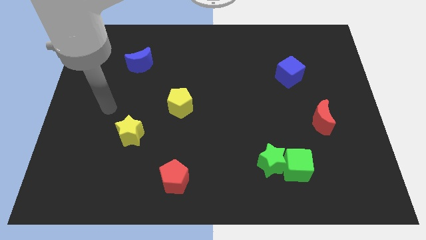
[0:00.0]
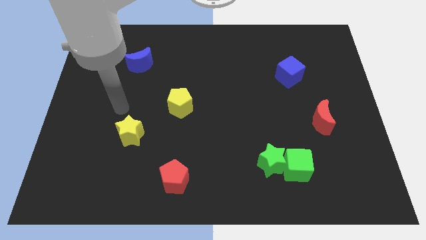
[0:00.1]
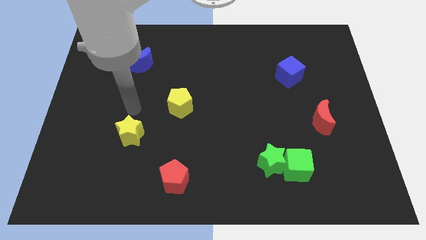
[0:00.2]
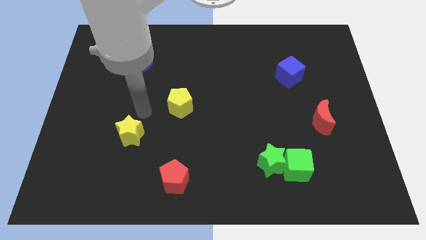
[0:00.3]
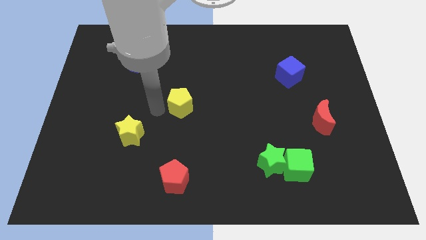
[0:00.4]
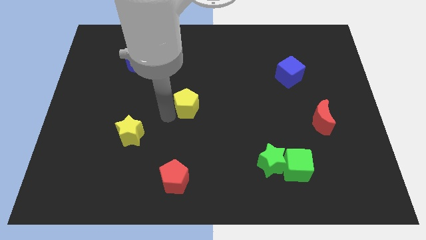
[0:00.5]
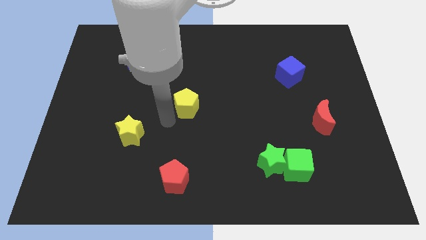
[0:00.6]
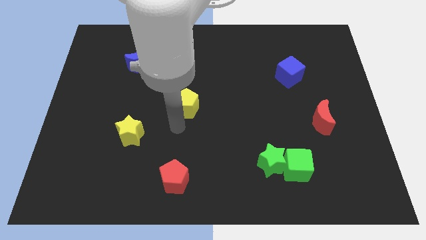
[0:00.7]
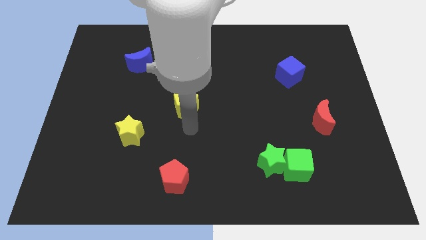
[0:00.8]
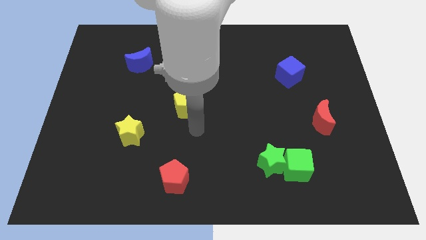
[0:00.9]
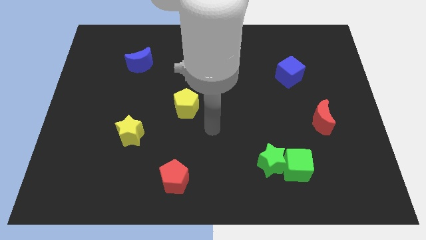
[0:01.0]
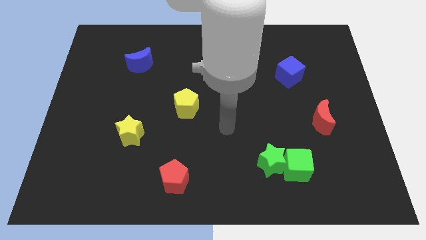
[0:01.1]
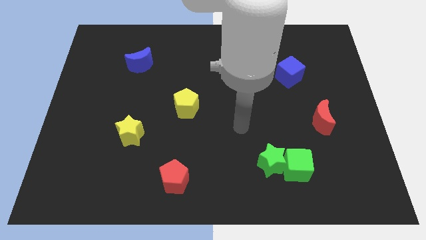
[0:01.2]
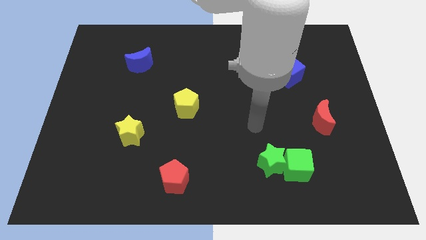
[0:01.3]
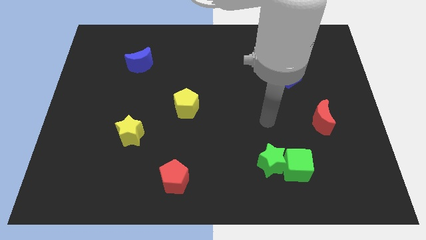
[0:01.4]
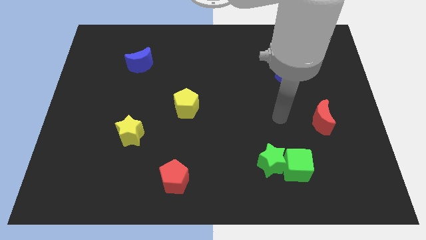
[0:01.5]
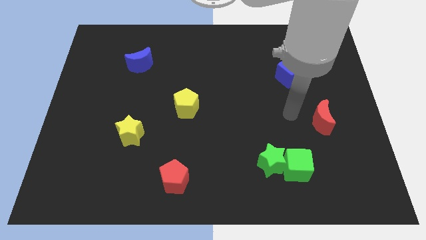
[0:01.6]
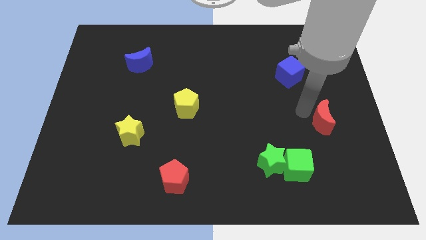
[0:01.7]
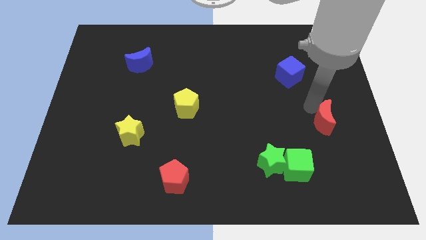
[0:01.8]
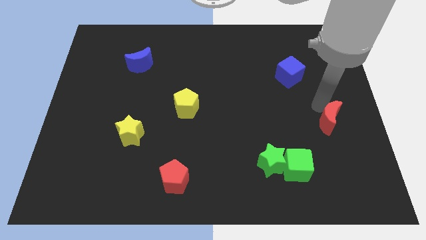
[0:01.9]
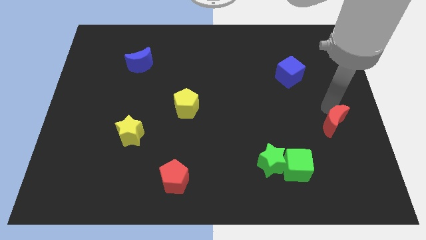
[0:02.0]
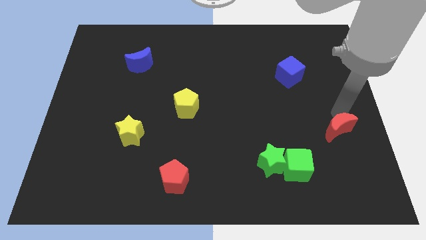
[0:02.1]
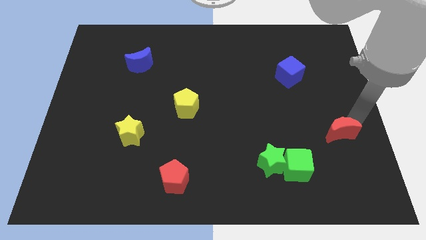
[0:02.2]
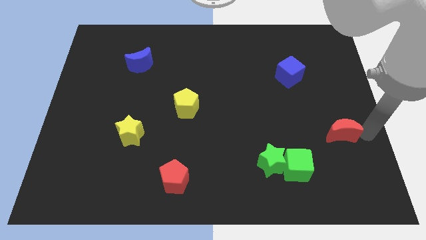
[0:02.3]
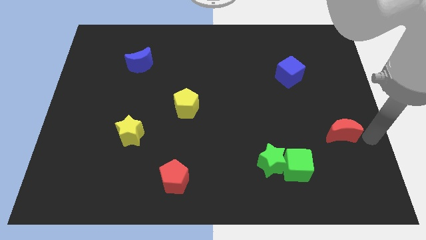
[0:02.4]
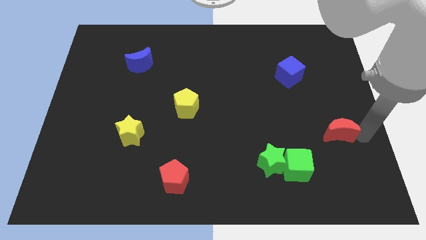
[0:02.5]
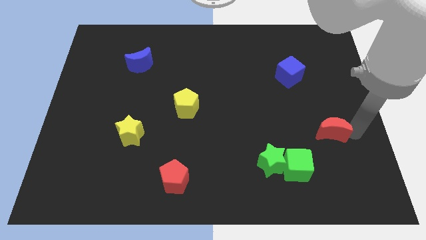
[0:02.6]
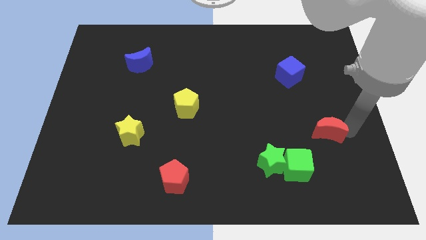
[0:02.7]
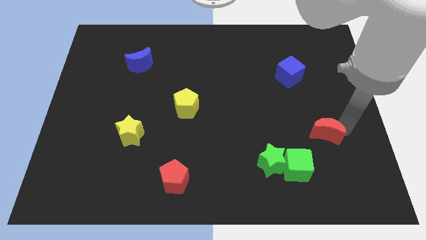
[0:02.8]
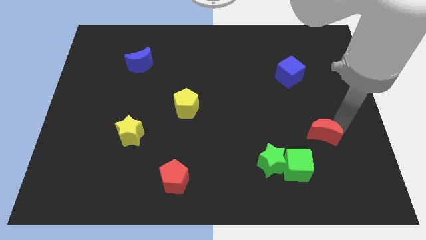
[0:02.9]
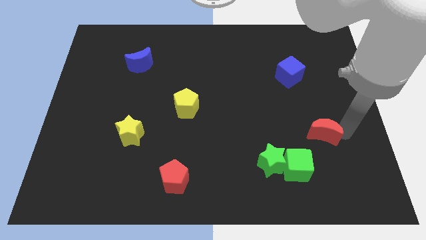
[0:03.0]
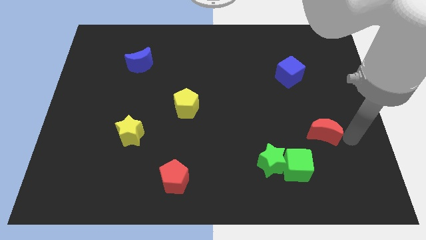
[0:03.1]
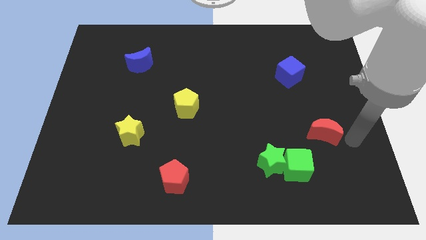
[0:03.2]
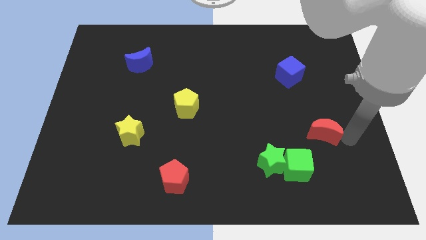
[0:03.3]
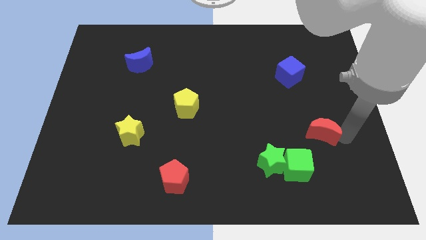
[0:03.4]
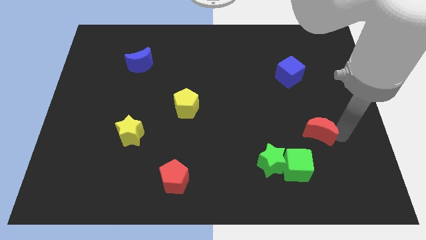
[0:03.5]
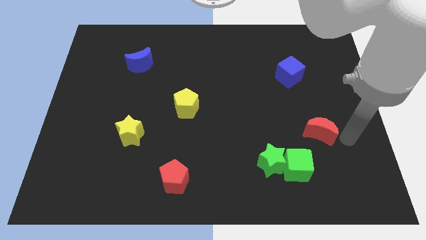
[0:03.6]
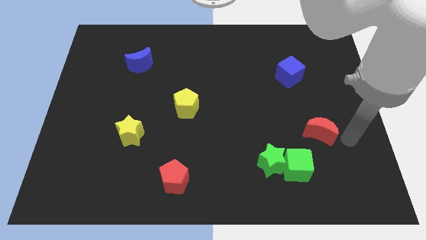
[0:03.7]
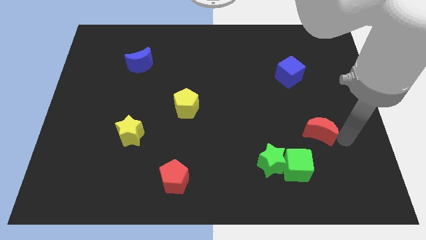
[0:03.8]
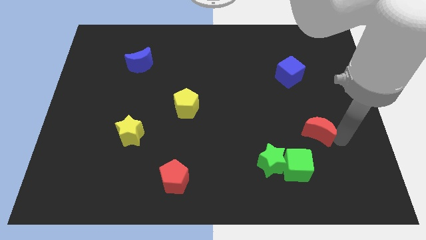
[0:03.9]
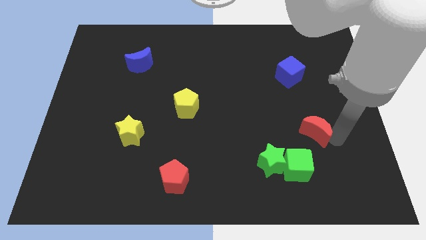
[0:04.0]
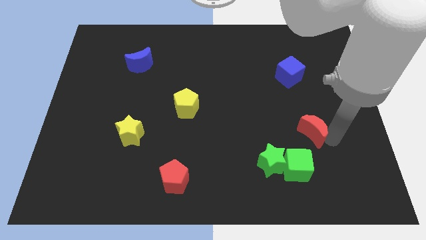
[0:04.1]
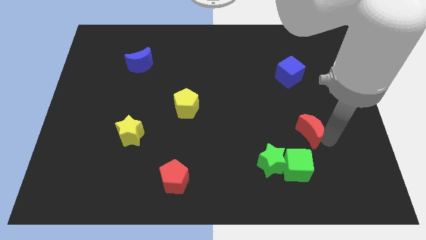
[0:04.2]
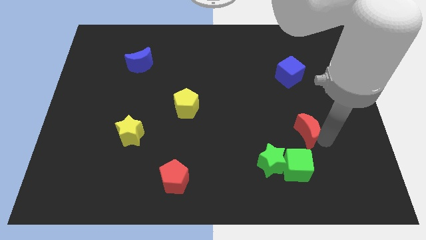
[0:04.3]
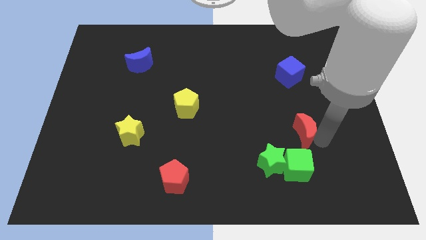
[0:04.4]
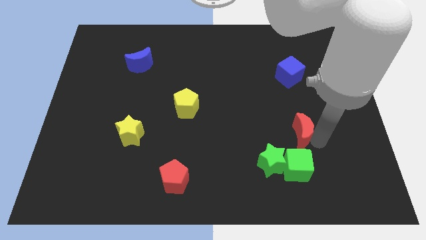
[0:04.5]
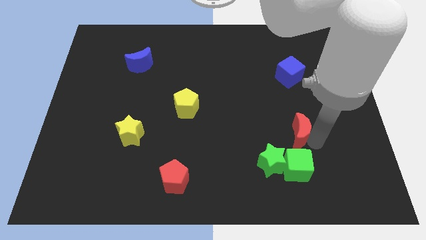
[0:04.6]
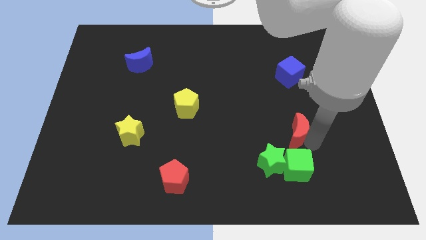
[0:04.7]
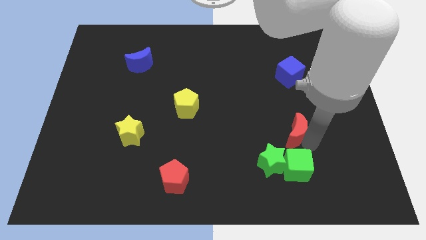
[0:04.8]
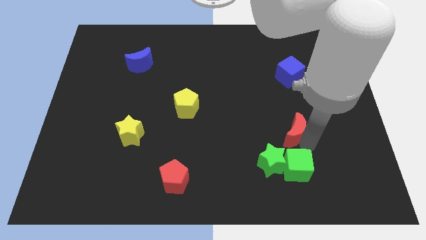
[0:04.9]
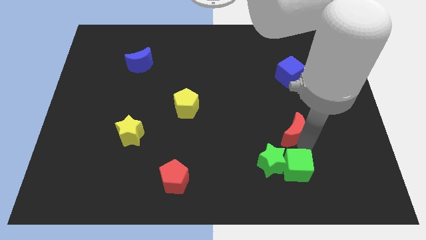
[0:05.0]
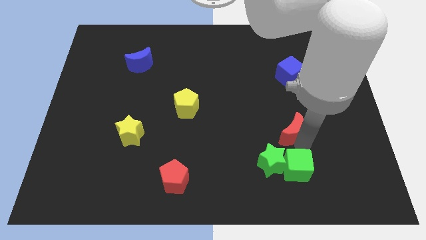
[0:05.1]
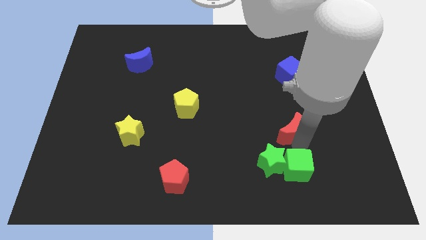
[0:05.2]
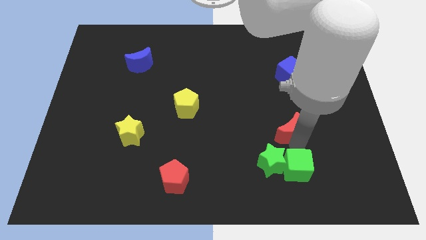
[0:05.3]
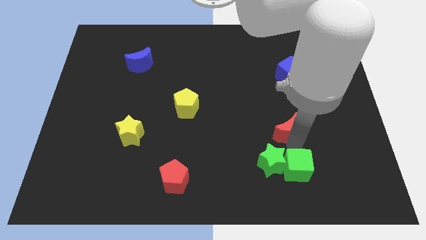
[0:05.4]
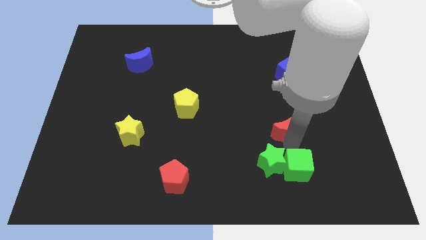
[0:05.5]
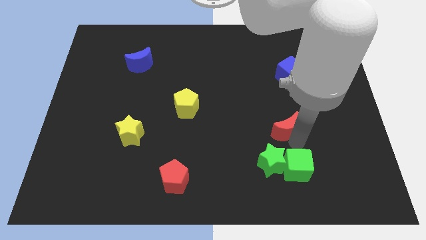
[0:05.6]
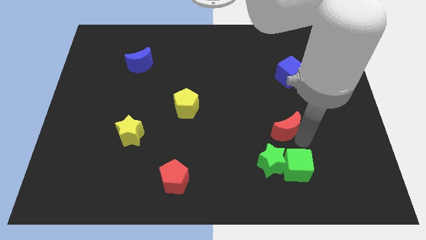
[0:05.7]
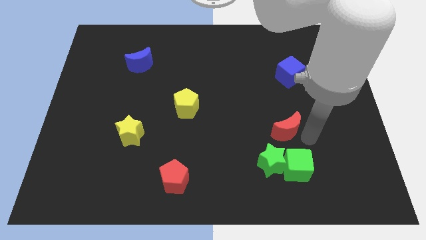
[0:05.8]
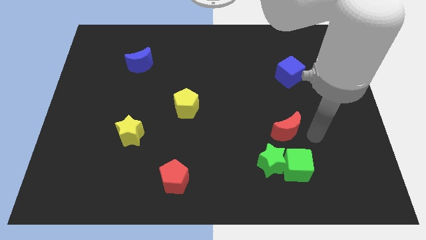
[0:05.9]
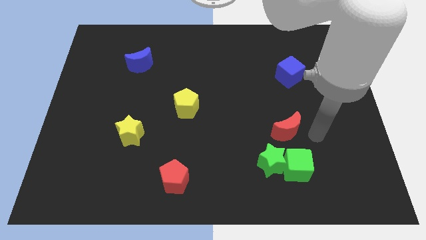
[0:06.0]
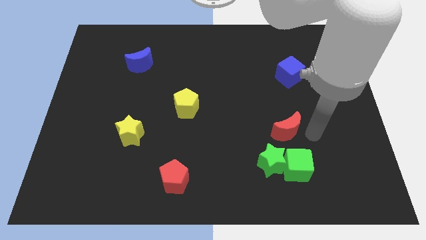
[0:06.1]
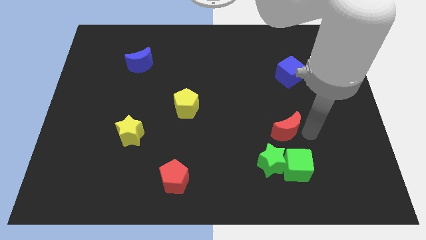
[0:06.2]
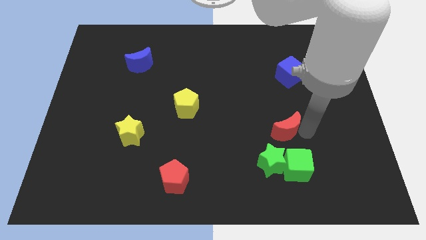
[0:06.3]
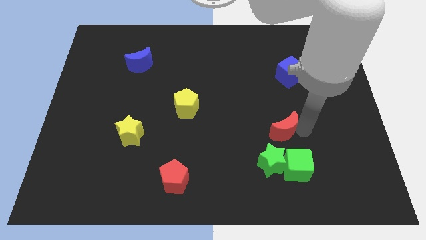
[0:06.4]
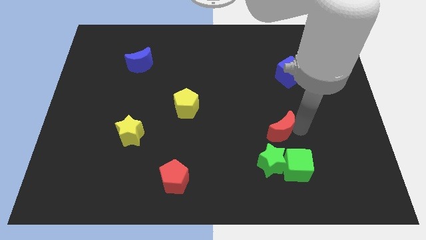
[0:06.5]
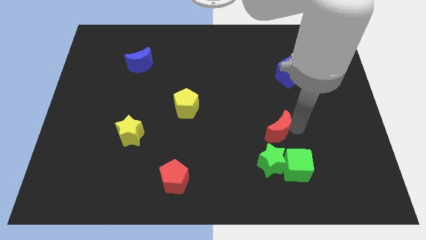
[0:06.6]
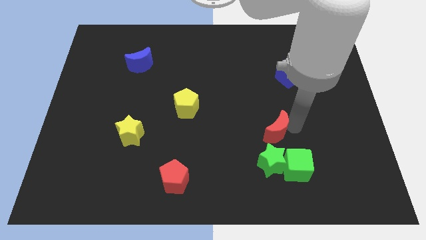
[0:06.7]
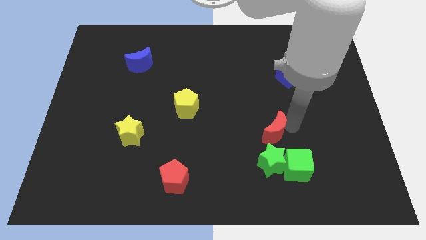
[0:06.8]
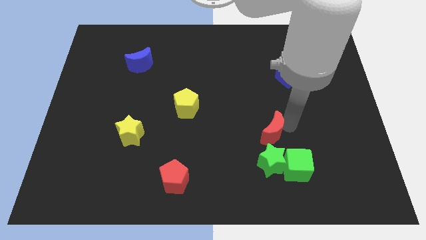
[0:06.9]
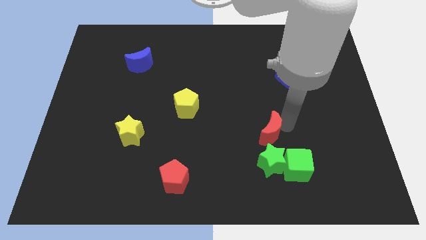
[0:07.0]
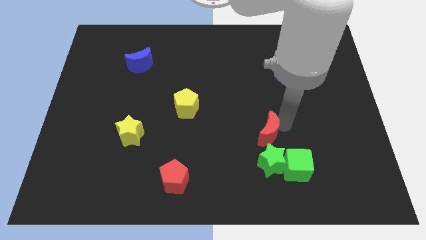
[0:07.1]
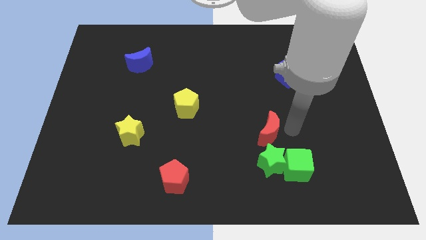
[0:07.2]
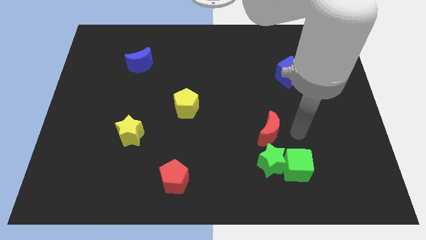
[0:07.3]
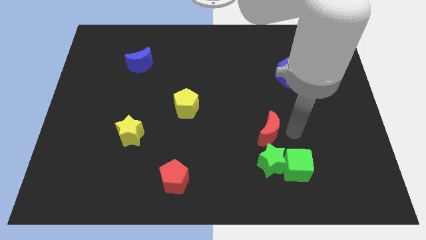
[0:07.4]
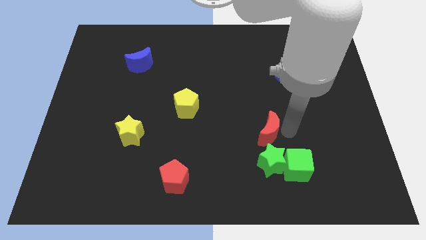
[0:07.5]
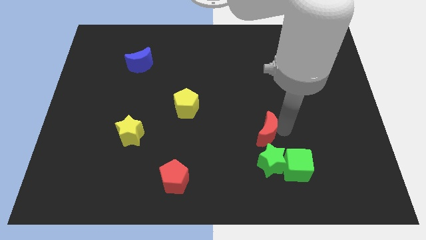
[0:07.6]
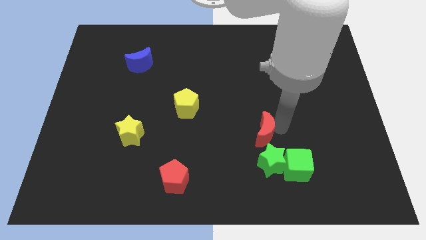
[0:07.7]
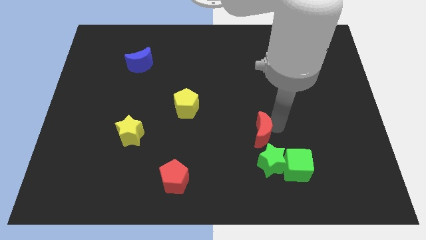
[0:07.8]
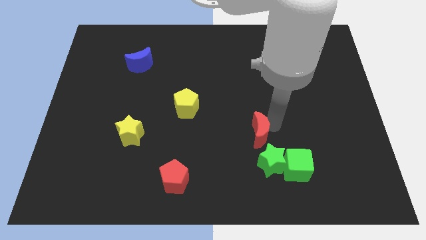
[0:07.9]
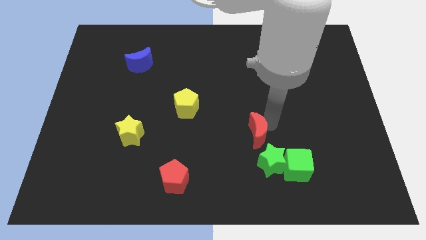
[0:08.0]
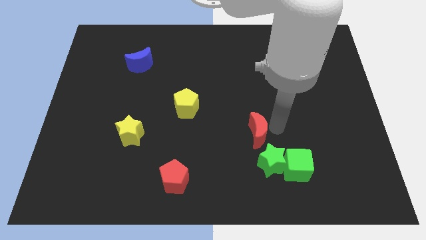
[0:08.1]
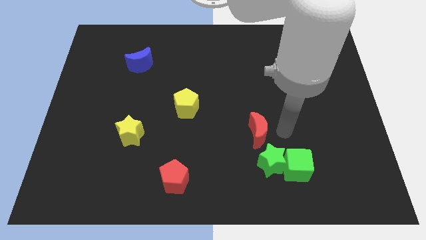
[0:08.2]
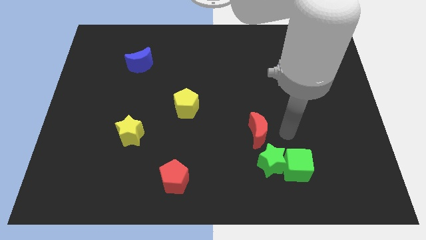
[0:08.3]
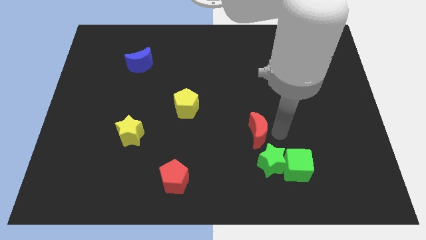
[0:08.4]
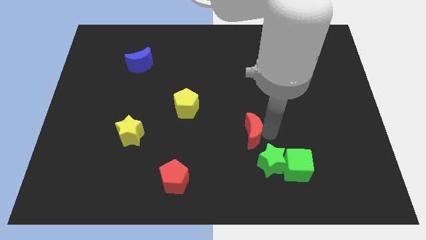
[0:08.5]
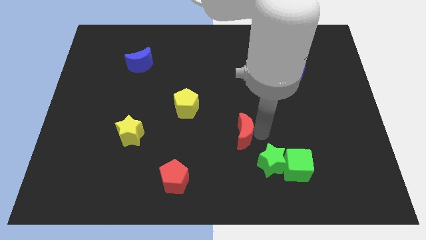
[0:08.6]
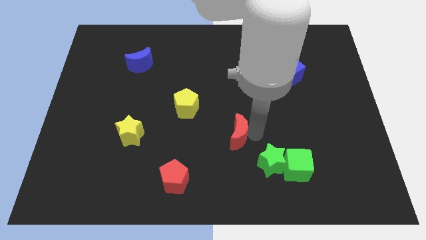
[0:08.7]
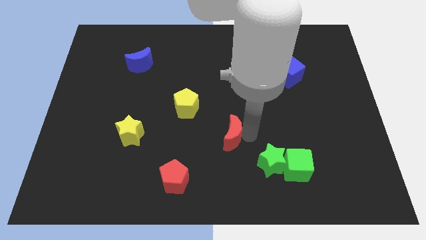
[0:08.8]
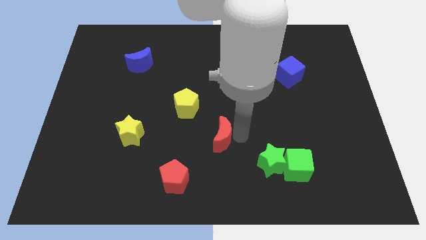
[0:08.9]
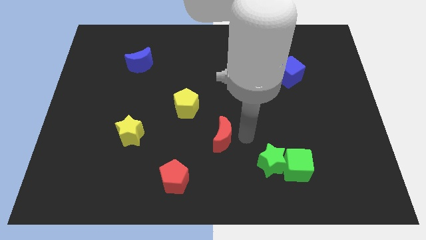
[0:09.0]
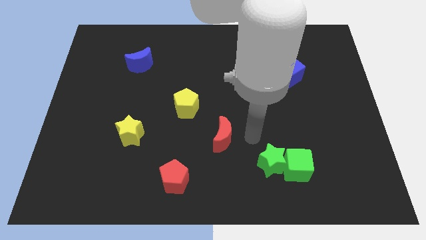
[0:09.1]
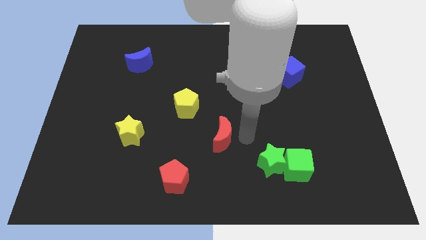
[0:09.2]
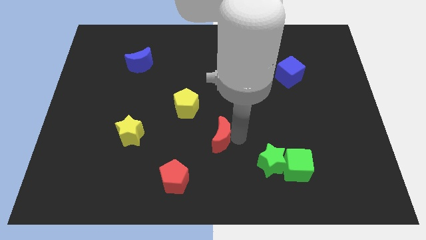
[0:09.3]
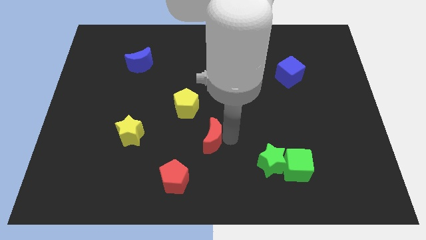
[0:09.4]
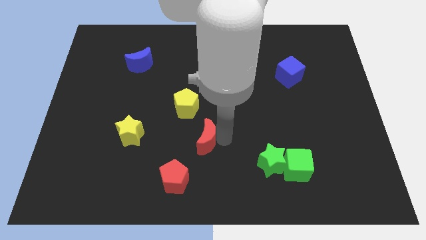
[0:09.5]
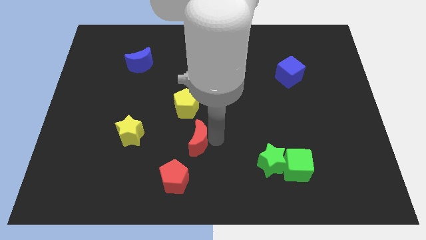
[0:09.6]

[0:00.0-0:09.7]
put the red moon to the bottom of the yellow pentagon
